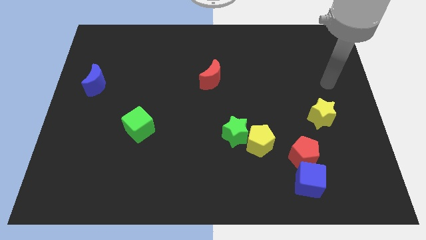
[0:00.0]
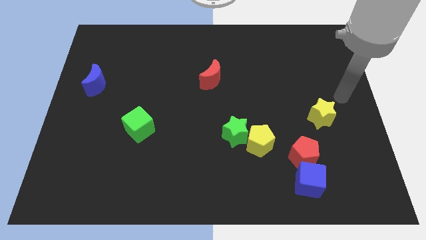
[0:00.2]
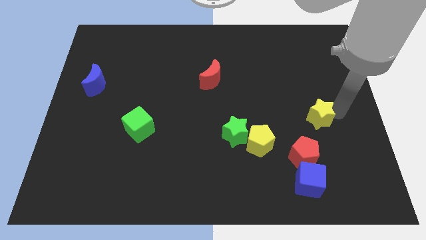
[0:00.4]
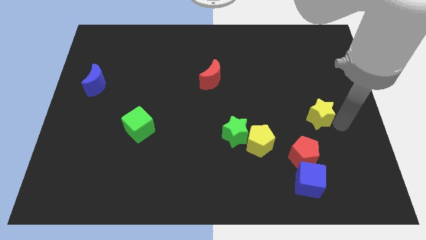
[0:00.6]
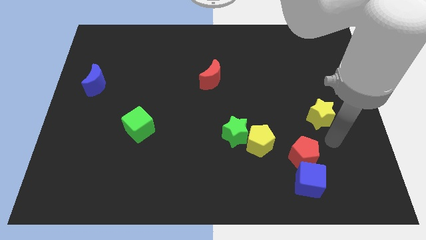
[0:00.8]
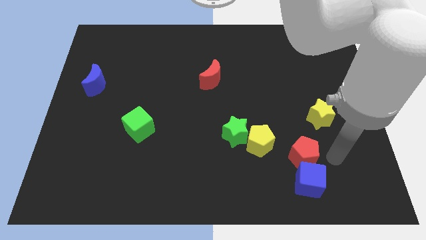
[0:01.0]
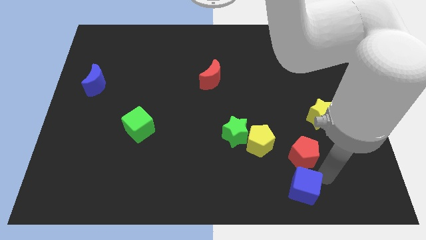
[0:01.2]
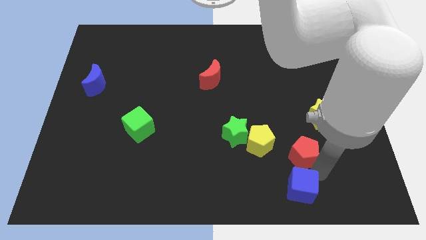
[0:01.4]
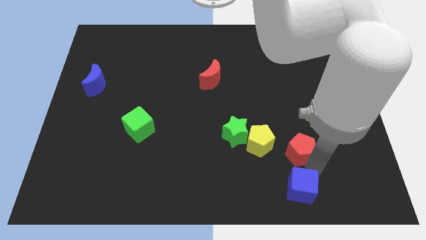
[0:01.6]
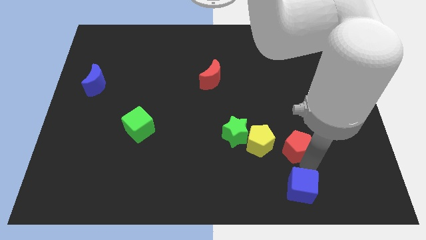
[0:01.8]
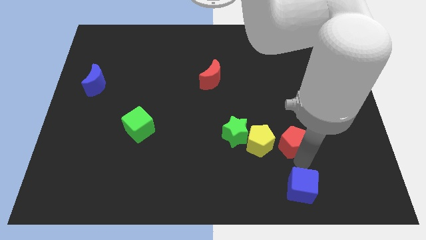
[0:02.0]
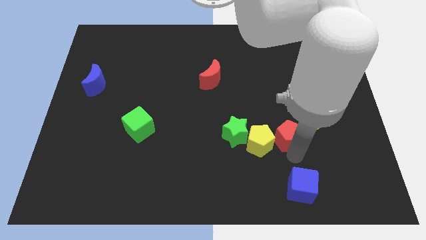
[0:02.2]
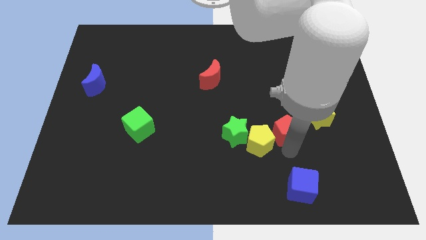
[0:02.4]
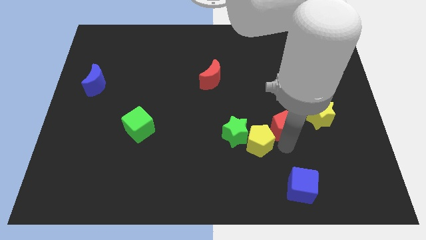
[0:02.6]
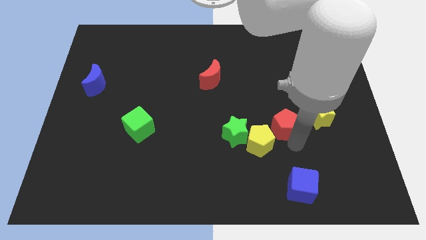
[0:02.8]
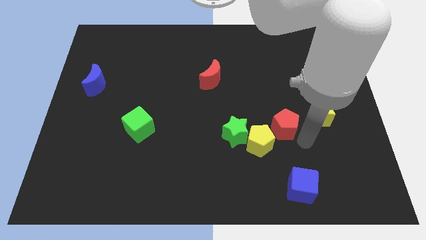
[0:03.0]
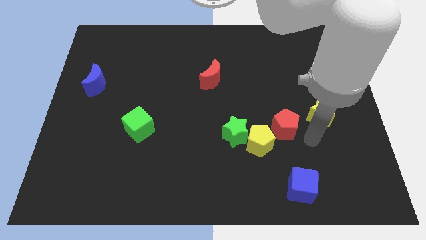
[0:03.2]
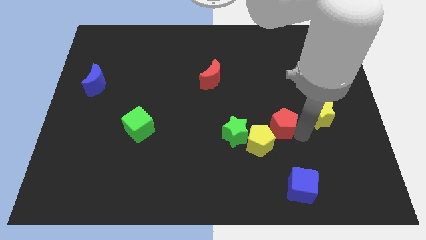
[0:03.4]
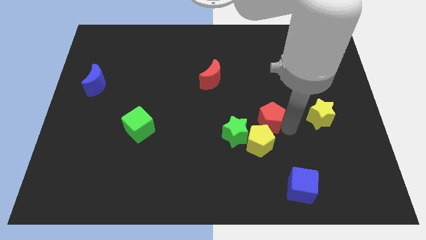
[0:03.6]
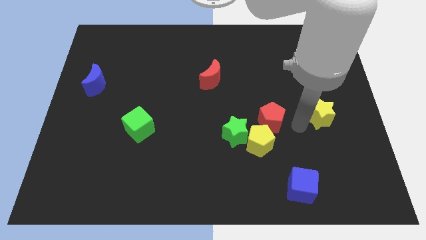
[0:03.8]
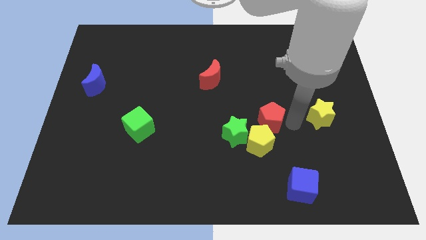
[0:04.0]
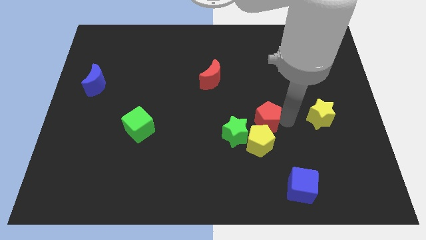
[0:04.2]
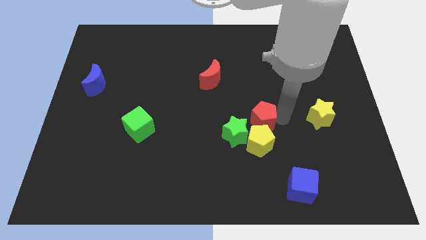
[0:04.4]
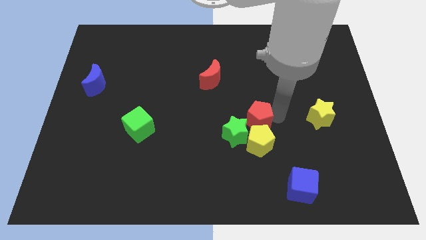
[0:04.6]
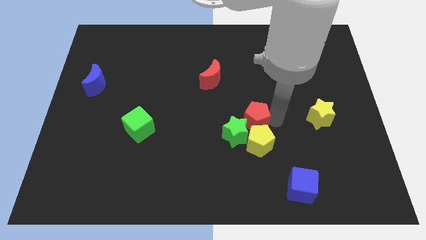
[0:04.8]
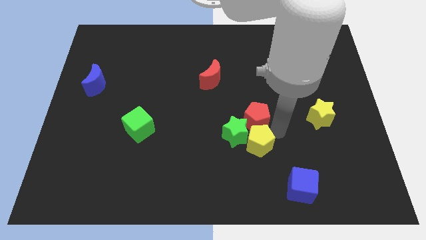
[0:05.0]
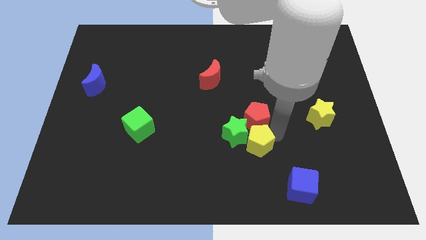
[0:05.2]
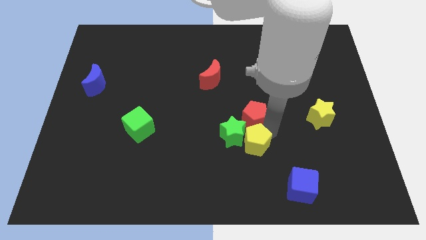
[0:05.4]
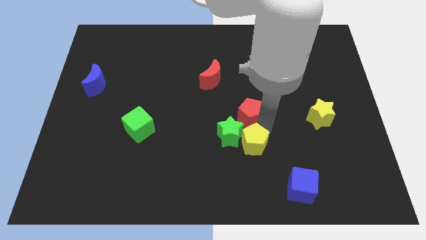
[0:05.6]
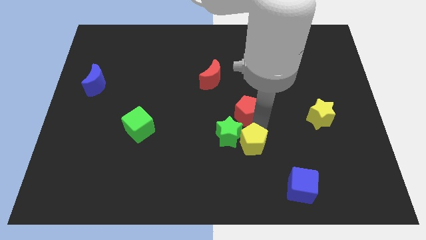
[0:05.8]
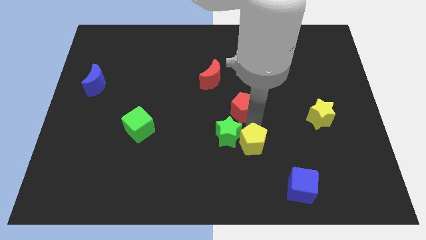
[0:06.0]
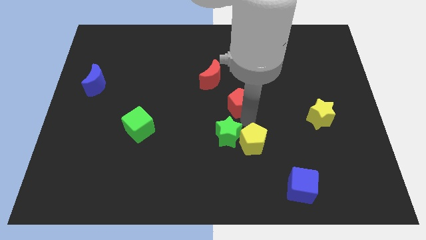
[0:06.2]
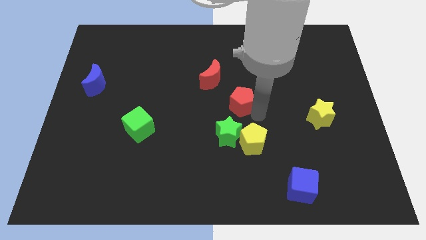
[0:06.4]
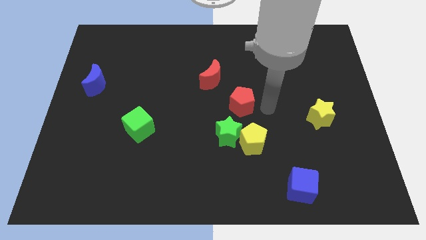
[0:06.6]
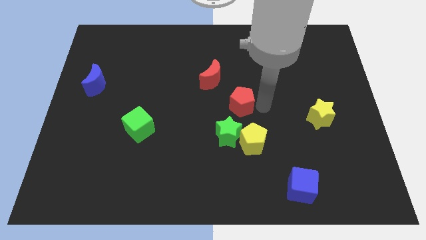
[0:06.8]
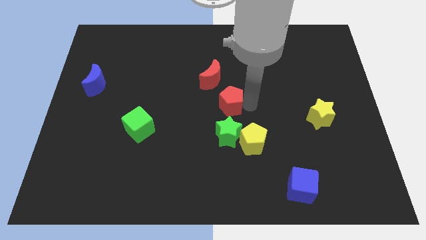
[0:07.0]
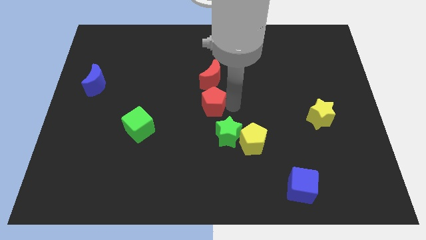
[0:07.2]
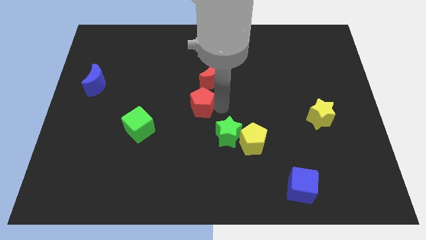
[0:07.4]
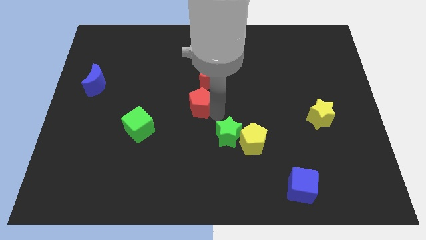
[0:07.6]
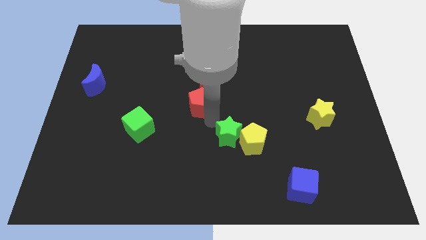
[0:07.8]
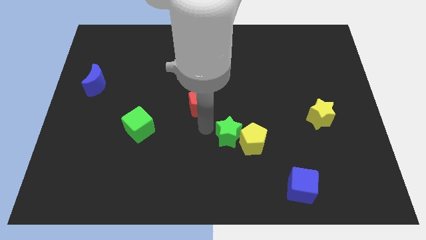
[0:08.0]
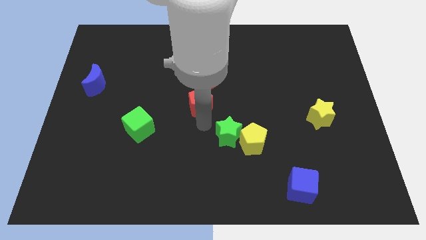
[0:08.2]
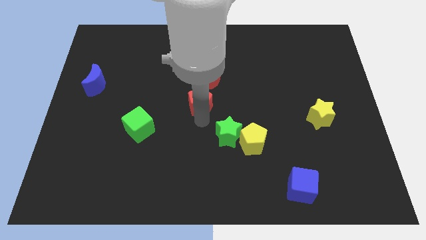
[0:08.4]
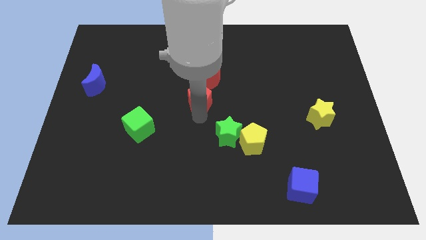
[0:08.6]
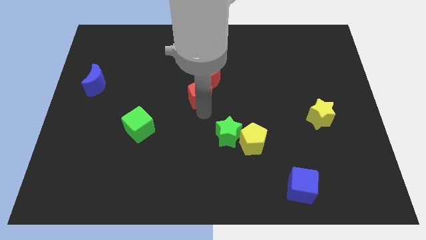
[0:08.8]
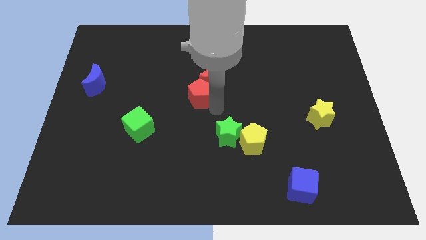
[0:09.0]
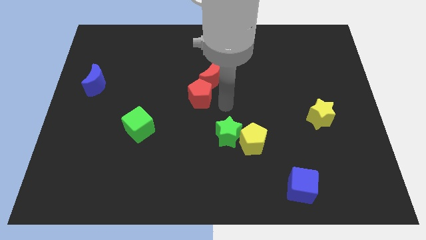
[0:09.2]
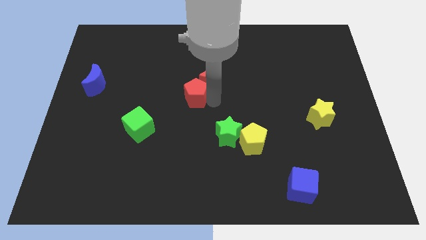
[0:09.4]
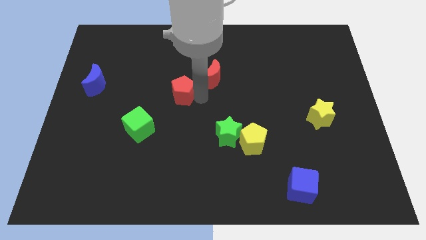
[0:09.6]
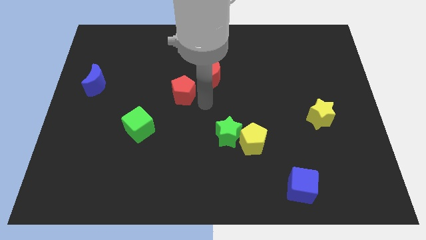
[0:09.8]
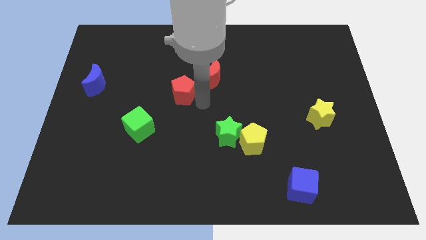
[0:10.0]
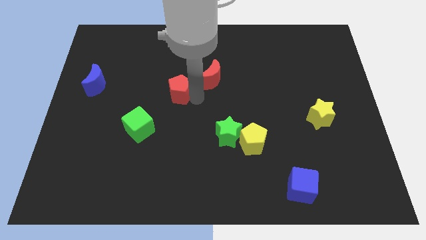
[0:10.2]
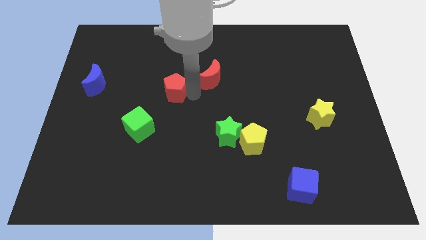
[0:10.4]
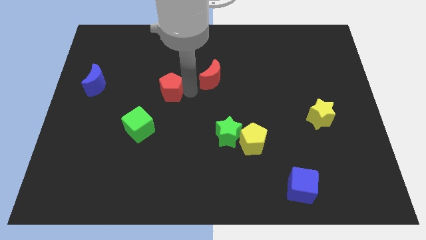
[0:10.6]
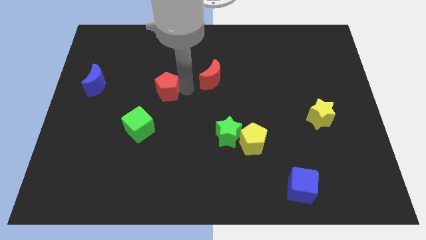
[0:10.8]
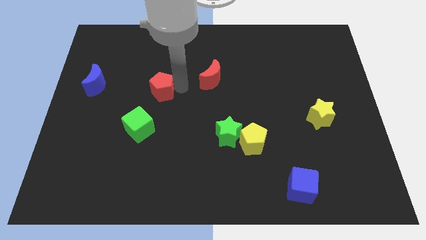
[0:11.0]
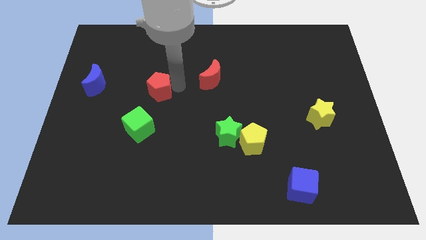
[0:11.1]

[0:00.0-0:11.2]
push the red pentagon to the right of the blue moon

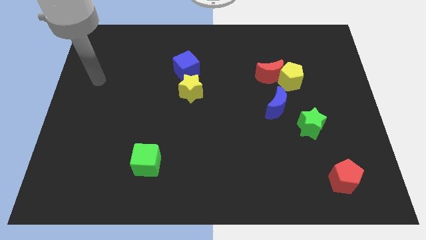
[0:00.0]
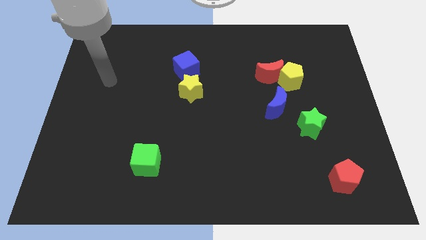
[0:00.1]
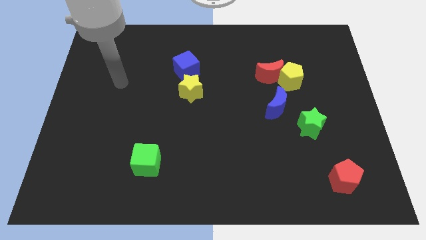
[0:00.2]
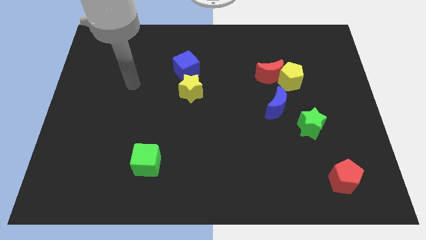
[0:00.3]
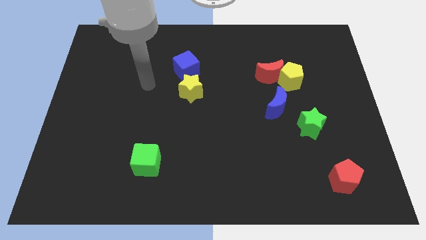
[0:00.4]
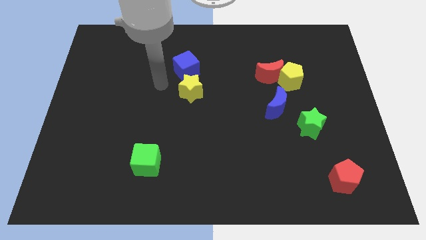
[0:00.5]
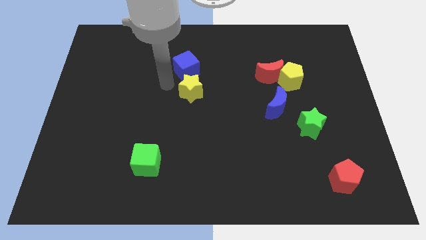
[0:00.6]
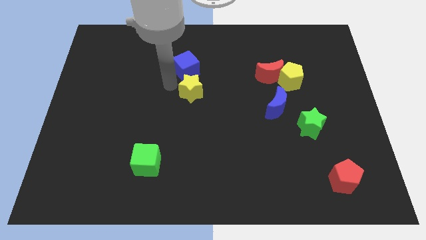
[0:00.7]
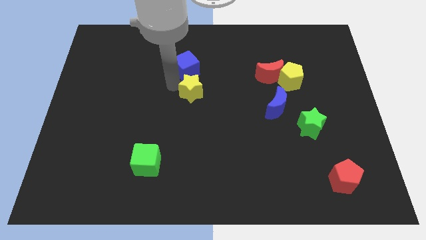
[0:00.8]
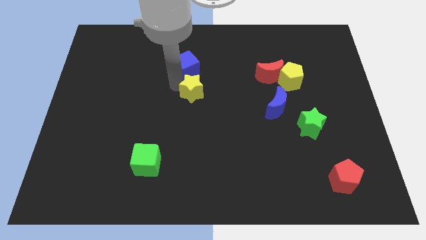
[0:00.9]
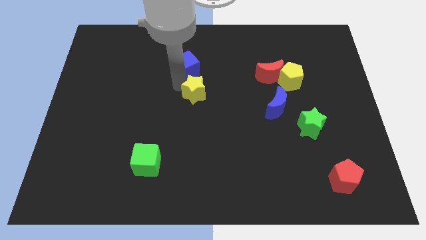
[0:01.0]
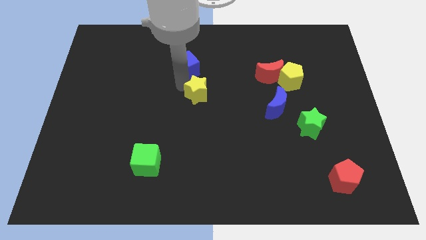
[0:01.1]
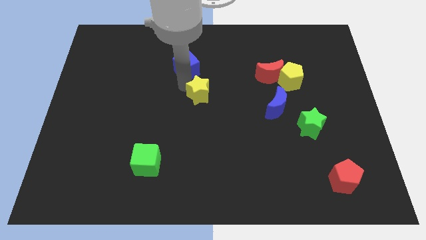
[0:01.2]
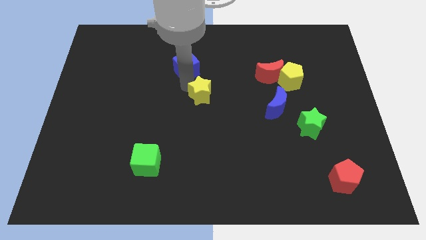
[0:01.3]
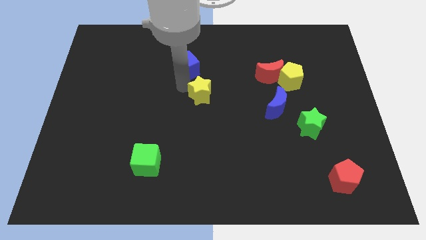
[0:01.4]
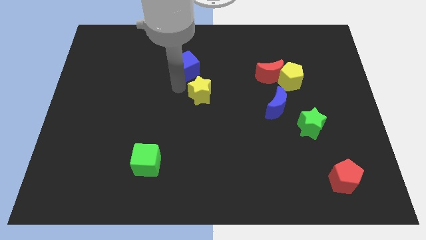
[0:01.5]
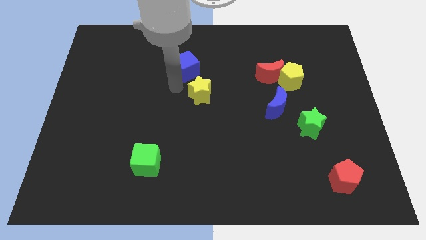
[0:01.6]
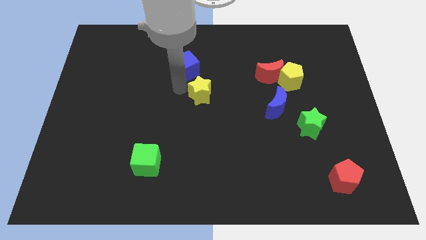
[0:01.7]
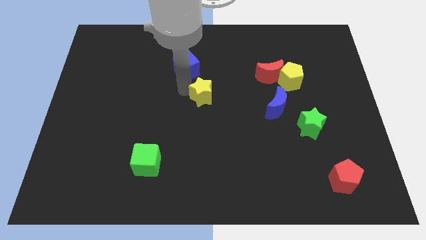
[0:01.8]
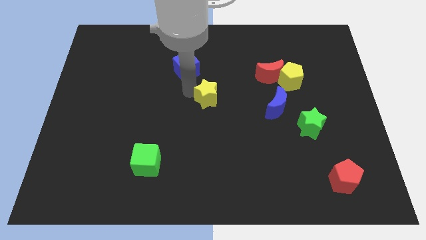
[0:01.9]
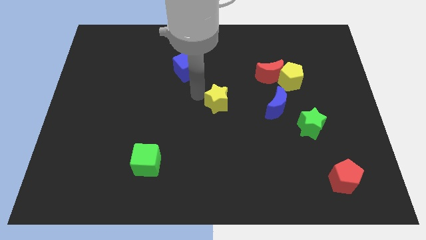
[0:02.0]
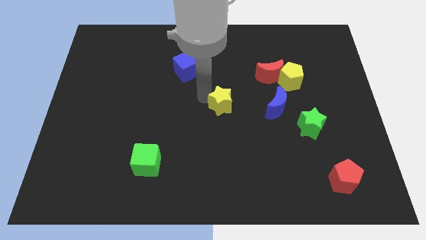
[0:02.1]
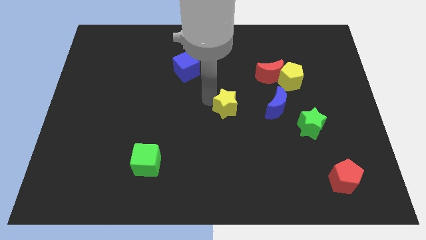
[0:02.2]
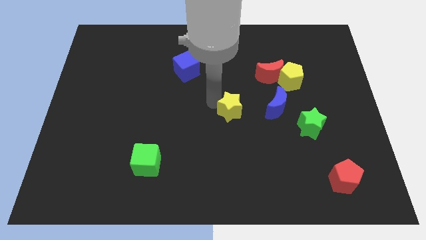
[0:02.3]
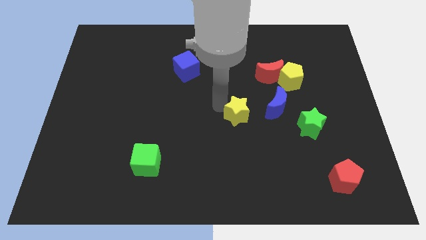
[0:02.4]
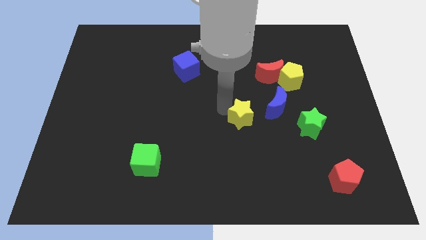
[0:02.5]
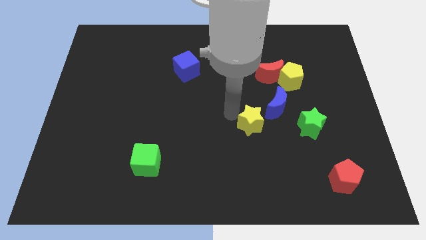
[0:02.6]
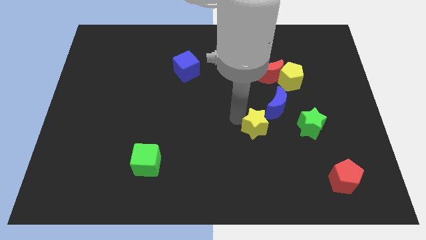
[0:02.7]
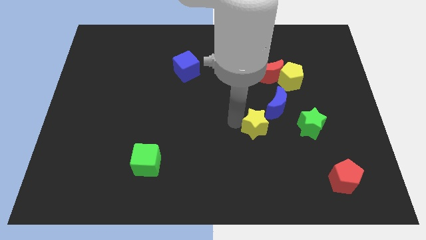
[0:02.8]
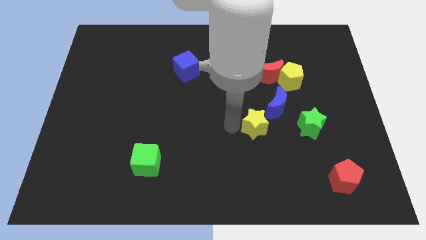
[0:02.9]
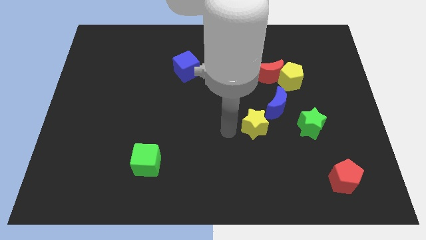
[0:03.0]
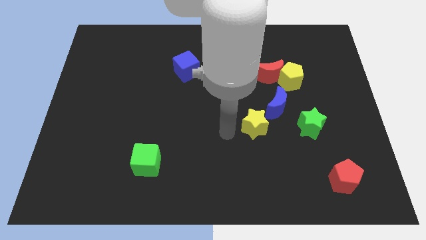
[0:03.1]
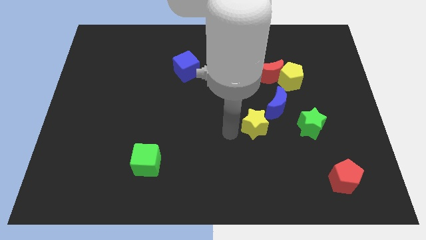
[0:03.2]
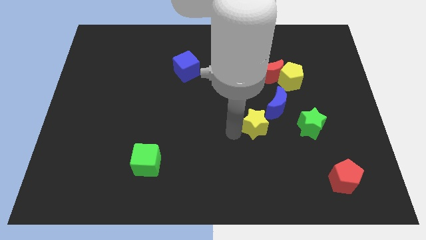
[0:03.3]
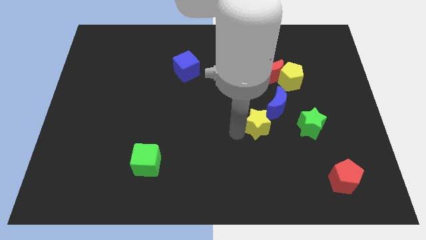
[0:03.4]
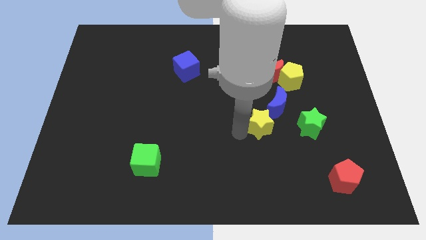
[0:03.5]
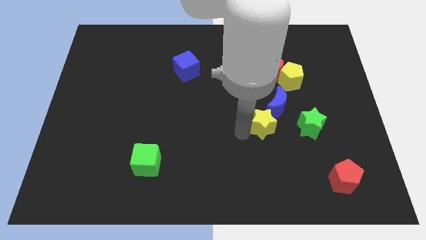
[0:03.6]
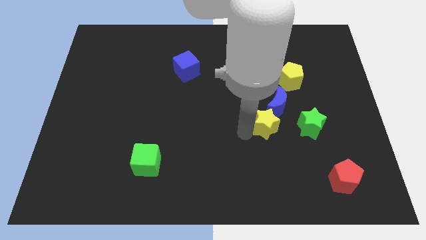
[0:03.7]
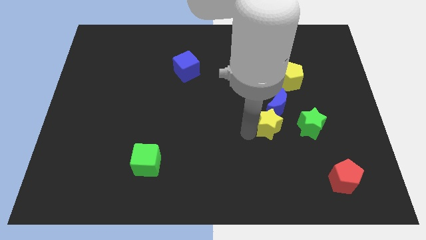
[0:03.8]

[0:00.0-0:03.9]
move the yellow star below the red moon
